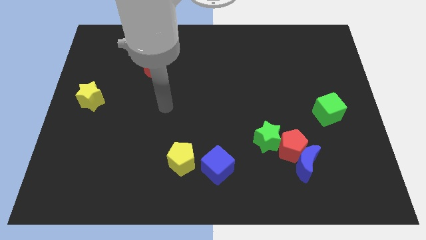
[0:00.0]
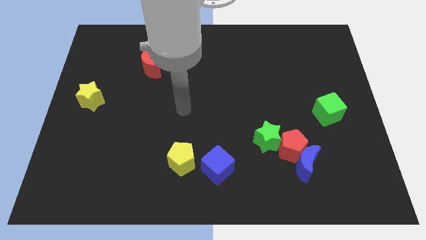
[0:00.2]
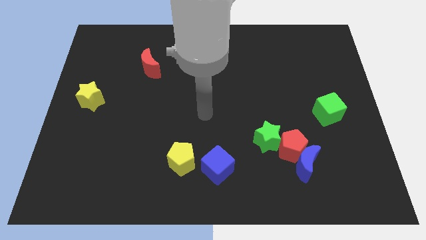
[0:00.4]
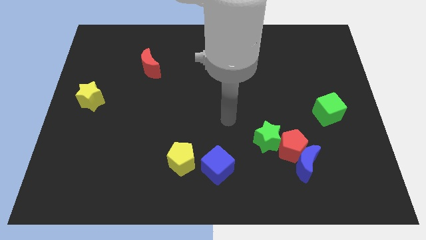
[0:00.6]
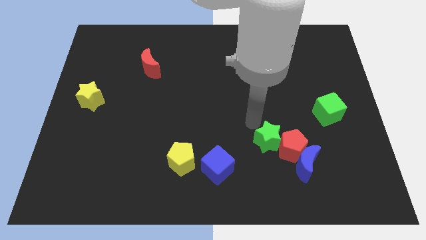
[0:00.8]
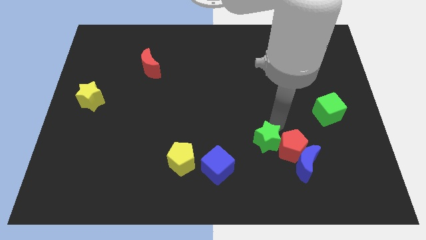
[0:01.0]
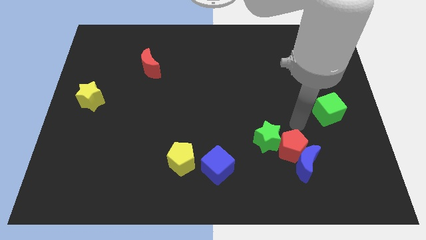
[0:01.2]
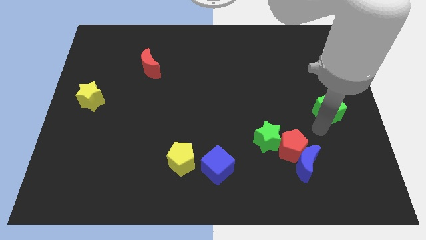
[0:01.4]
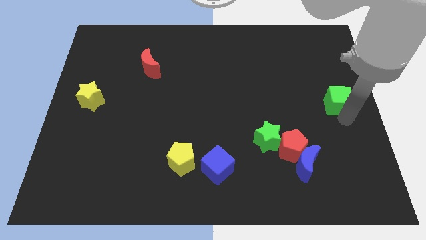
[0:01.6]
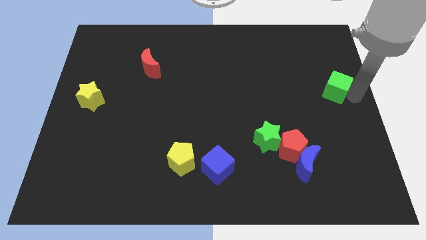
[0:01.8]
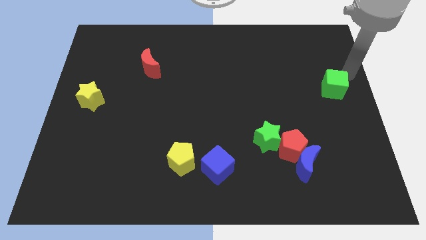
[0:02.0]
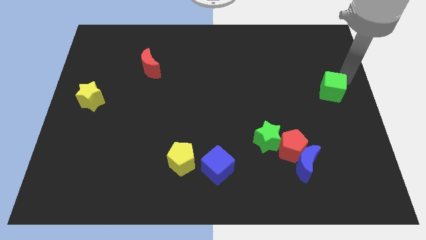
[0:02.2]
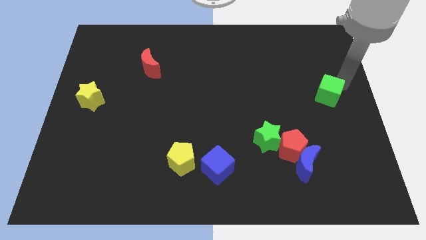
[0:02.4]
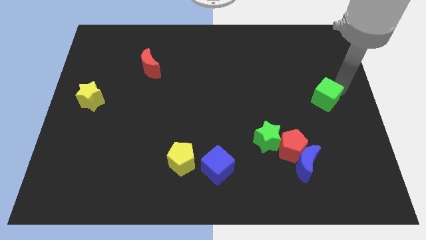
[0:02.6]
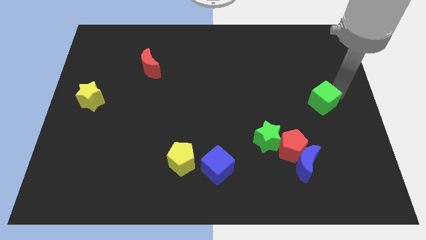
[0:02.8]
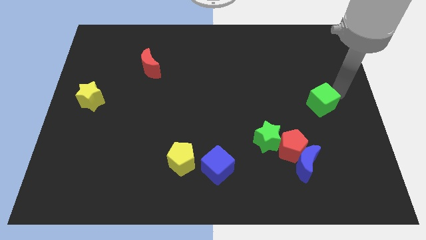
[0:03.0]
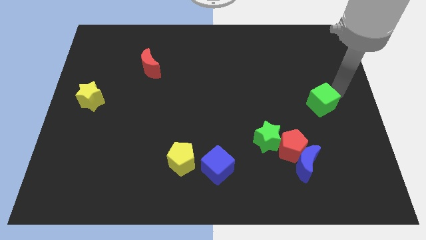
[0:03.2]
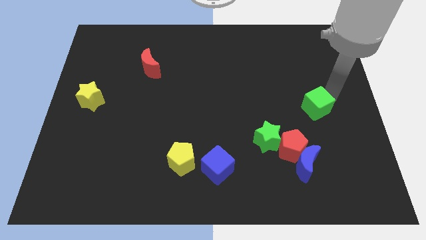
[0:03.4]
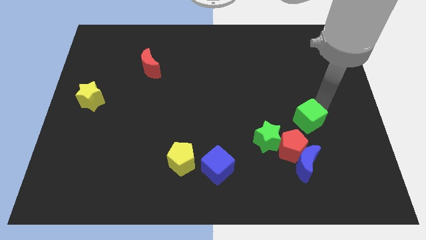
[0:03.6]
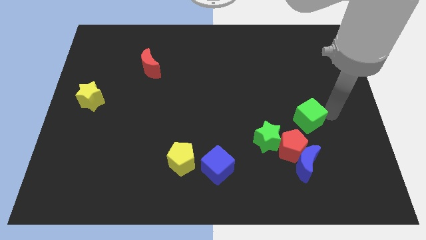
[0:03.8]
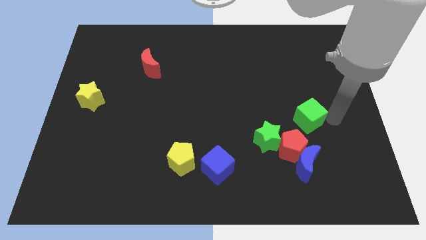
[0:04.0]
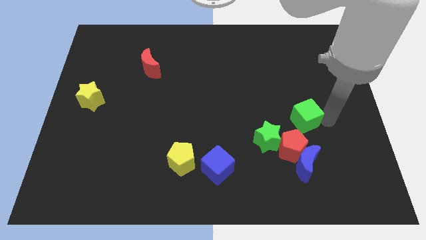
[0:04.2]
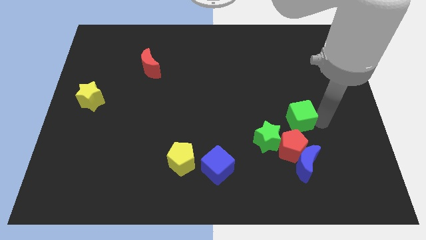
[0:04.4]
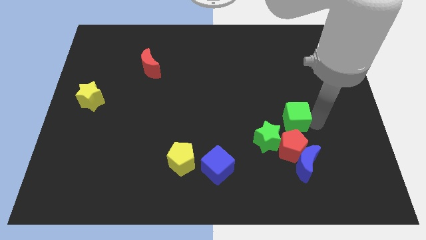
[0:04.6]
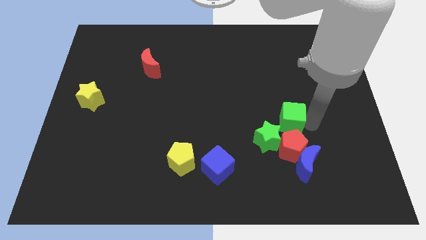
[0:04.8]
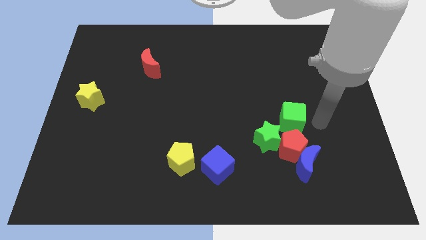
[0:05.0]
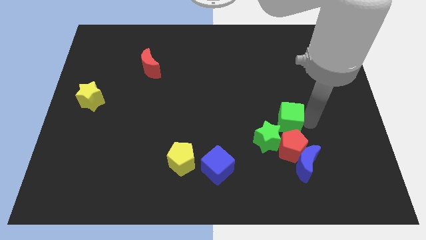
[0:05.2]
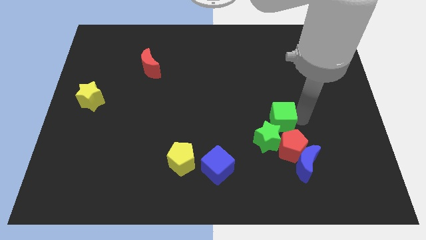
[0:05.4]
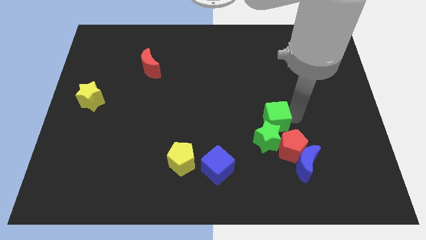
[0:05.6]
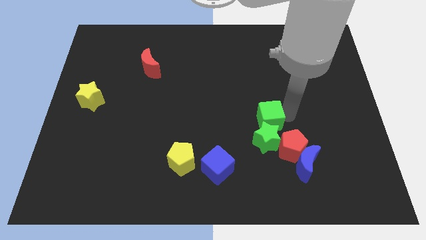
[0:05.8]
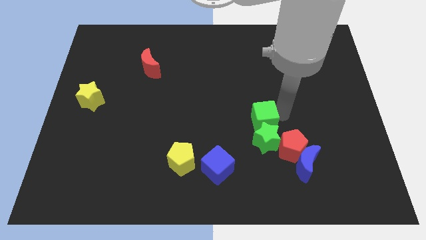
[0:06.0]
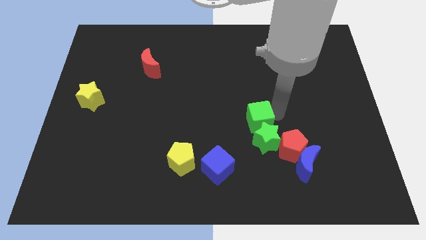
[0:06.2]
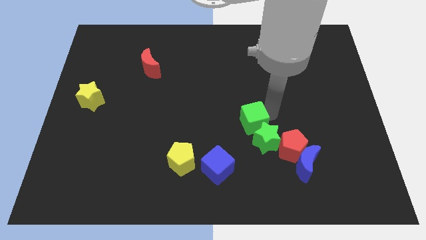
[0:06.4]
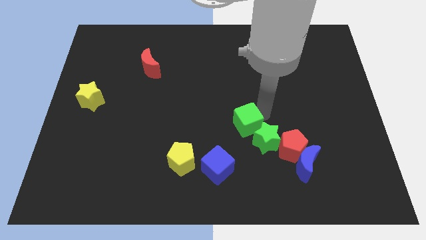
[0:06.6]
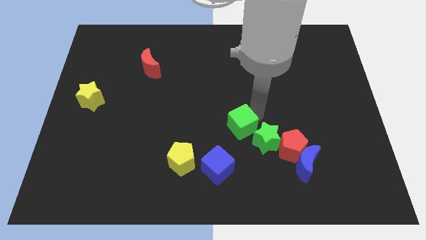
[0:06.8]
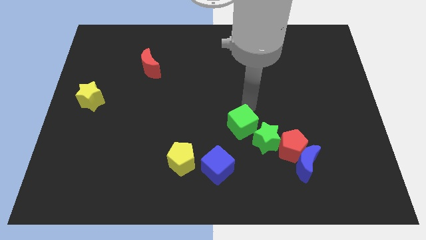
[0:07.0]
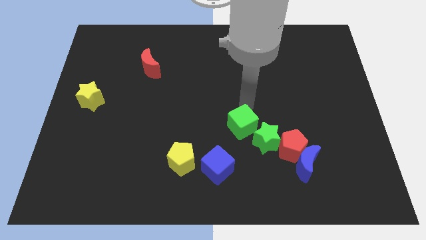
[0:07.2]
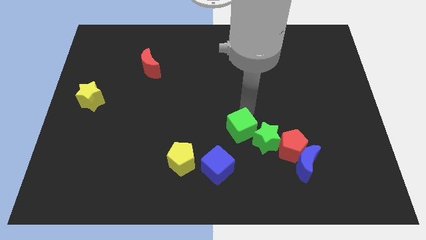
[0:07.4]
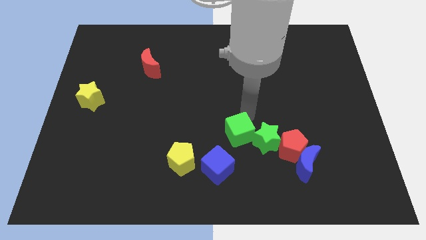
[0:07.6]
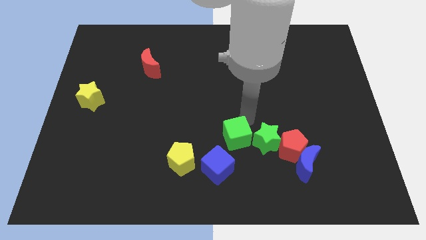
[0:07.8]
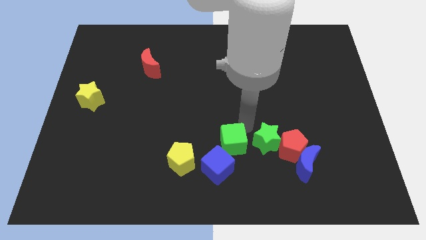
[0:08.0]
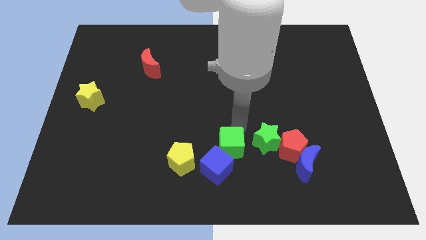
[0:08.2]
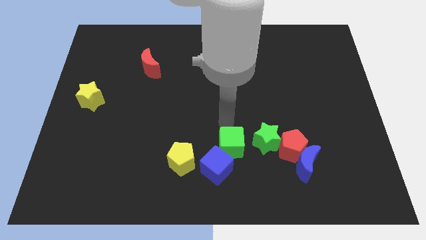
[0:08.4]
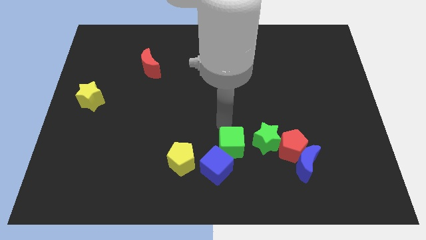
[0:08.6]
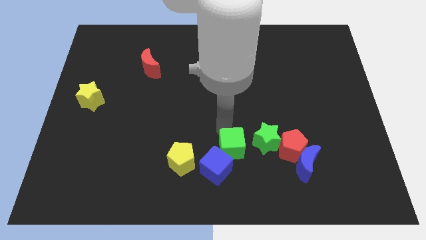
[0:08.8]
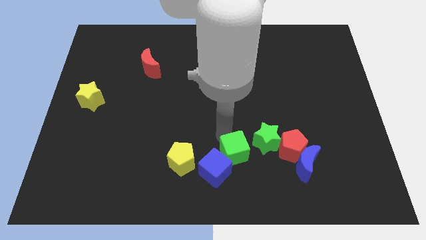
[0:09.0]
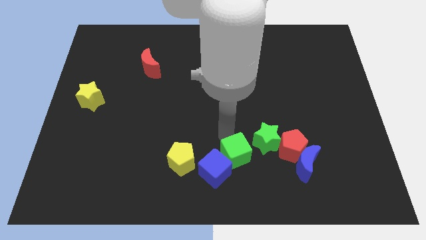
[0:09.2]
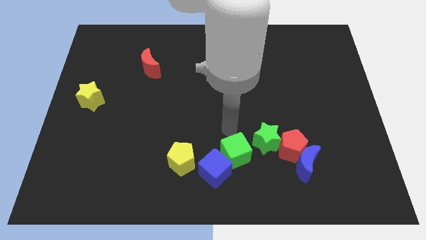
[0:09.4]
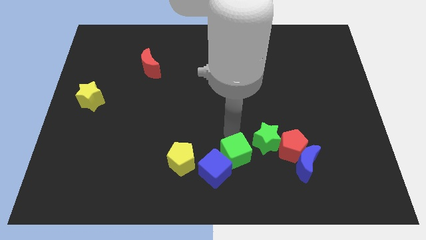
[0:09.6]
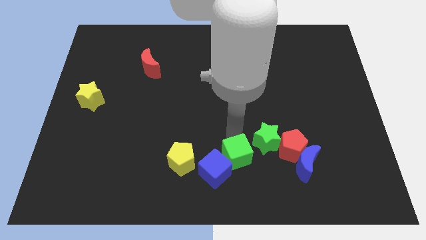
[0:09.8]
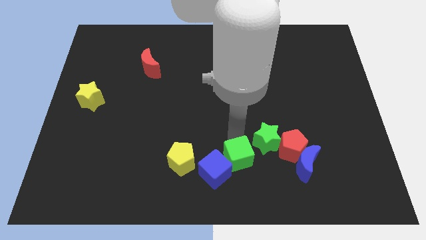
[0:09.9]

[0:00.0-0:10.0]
put the green cube to the bottom side

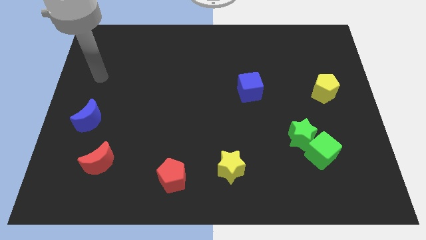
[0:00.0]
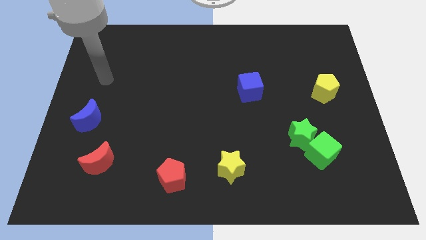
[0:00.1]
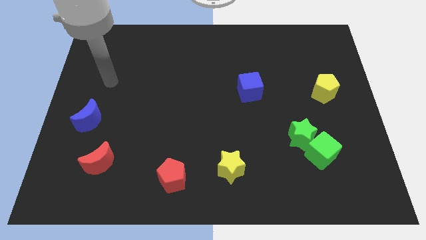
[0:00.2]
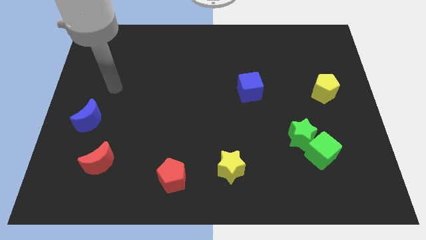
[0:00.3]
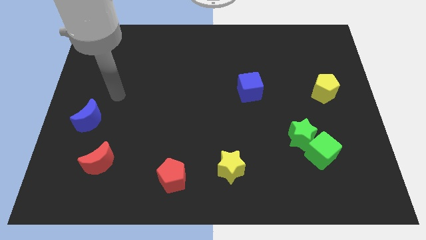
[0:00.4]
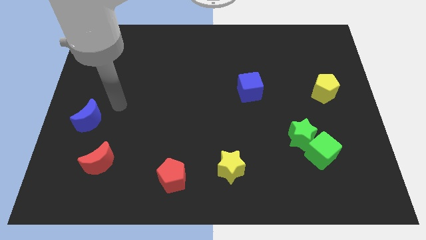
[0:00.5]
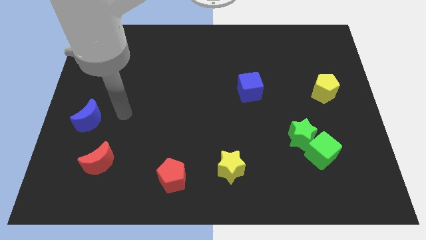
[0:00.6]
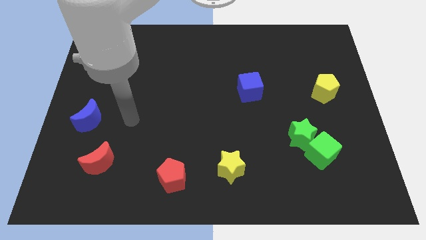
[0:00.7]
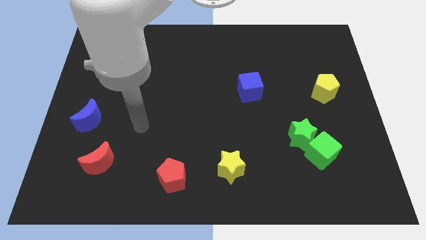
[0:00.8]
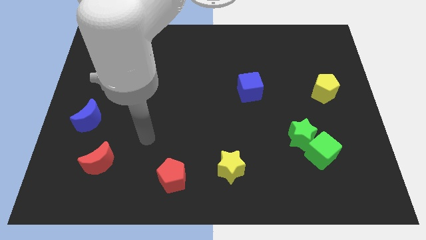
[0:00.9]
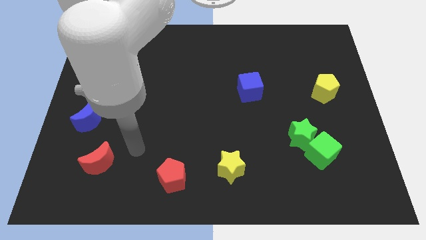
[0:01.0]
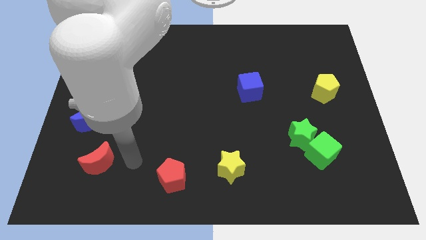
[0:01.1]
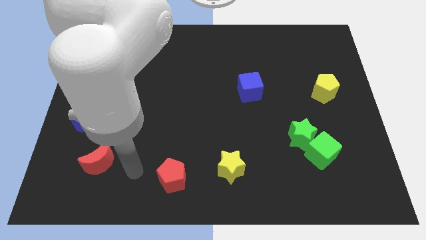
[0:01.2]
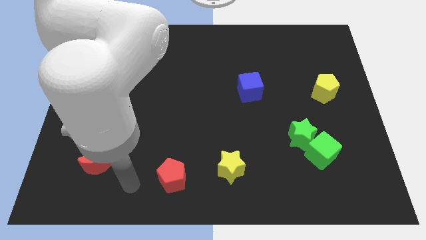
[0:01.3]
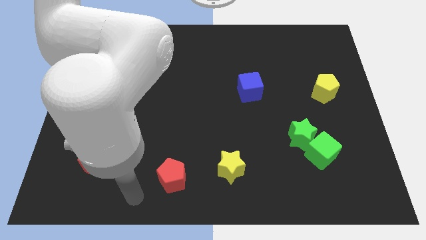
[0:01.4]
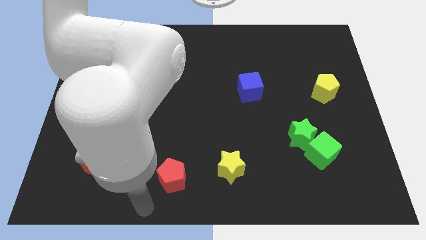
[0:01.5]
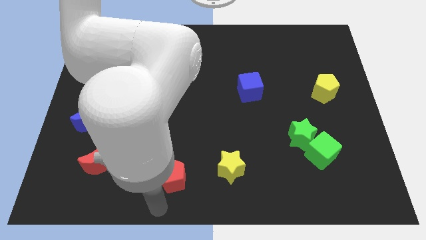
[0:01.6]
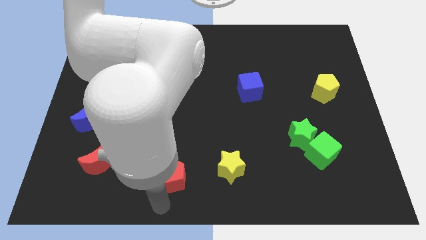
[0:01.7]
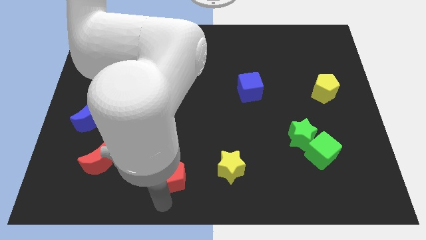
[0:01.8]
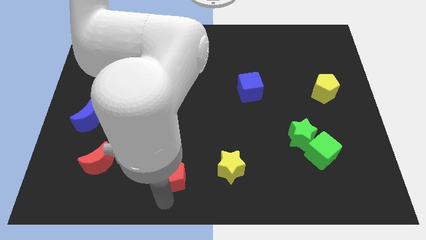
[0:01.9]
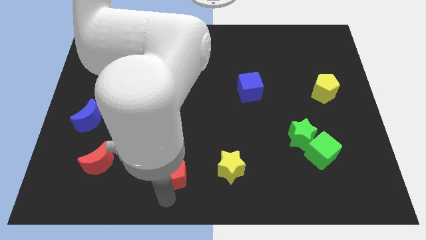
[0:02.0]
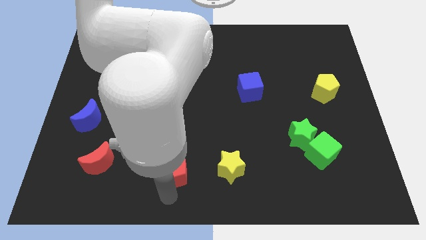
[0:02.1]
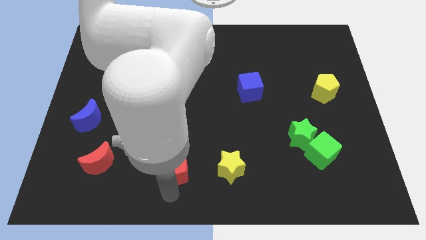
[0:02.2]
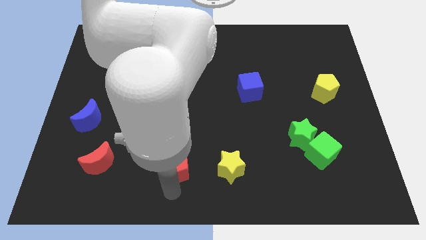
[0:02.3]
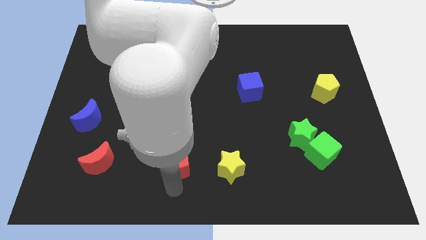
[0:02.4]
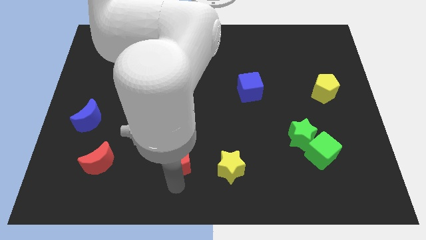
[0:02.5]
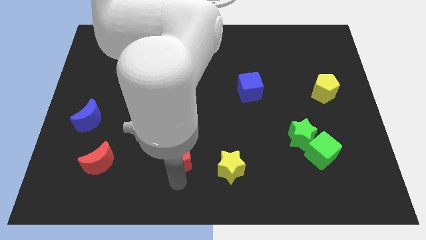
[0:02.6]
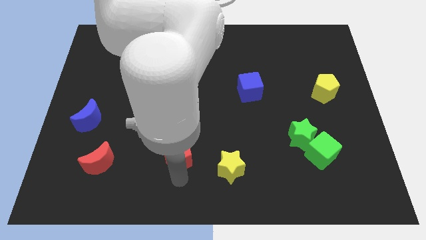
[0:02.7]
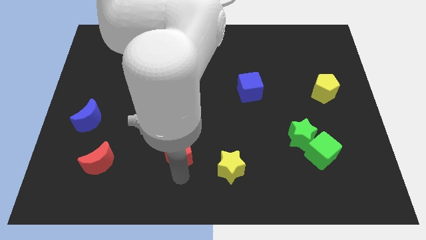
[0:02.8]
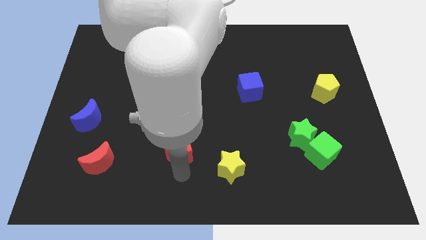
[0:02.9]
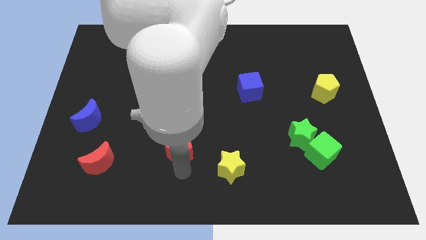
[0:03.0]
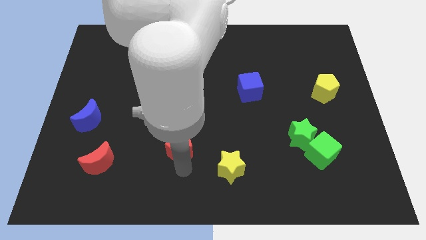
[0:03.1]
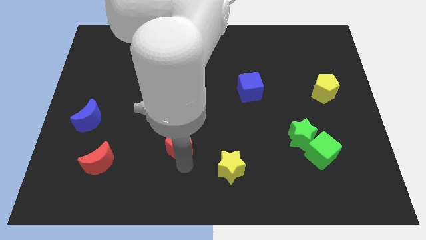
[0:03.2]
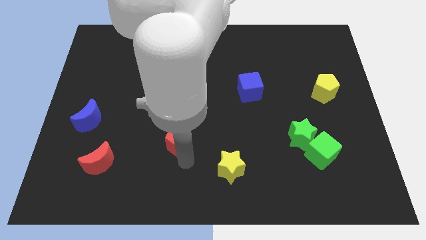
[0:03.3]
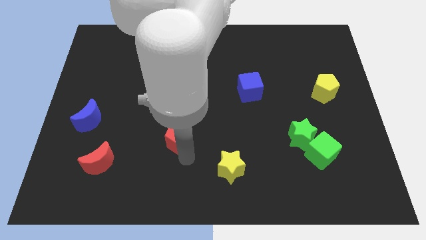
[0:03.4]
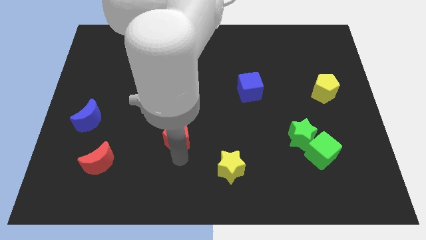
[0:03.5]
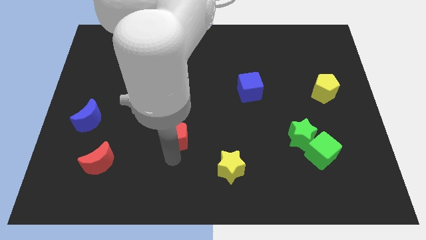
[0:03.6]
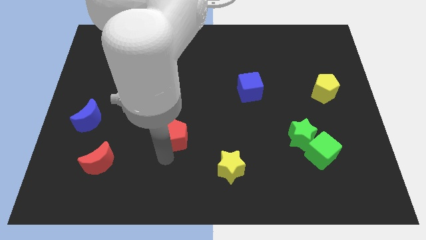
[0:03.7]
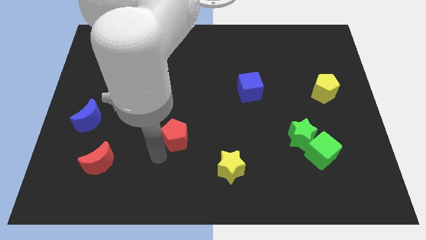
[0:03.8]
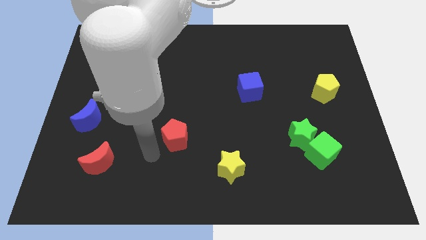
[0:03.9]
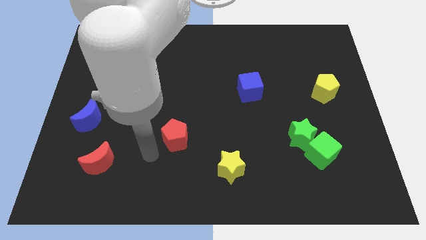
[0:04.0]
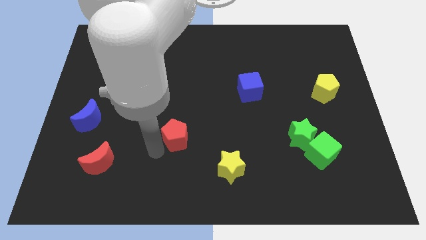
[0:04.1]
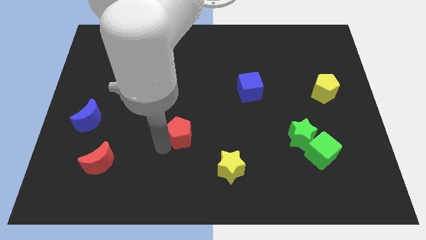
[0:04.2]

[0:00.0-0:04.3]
slide the red pentagon to the middle of the board
